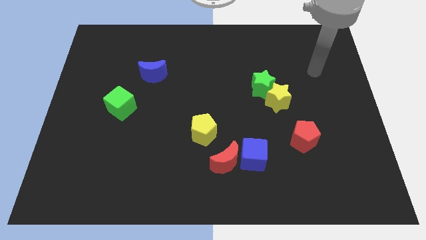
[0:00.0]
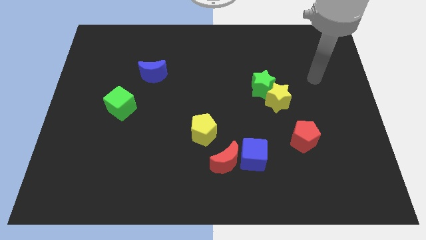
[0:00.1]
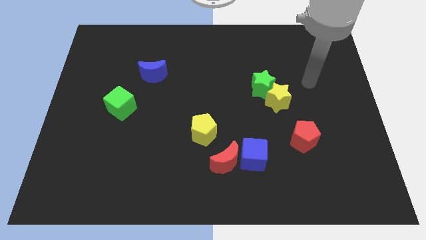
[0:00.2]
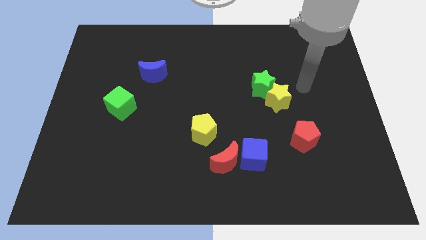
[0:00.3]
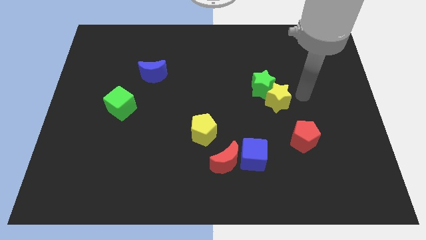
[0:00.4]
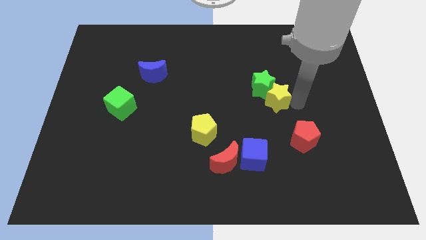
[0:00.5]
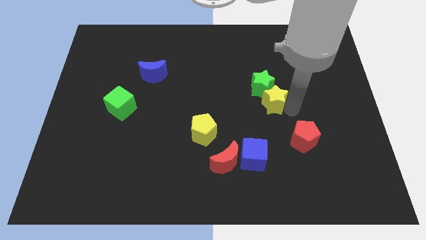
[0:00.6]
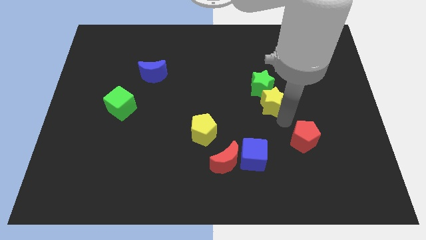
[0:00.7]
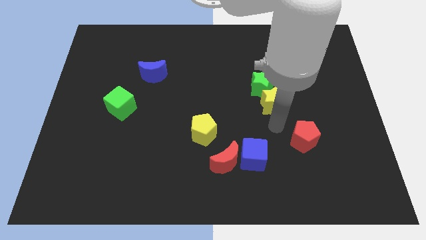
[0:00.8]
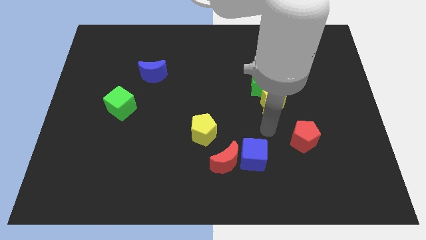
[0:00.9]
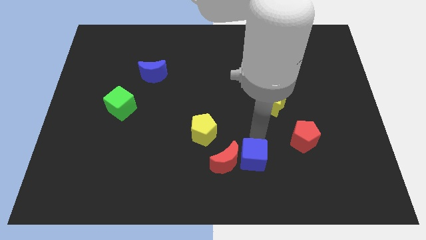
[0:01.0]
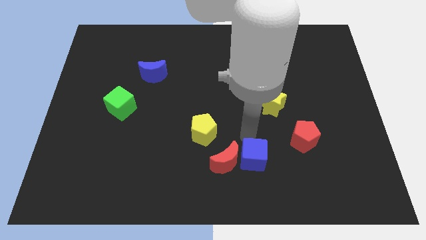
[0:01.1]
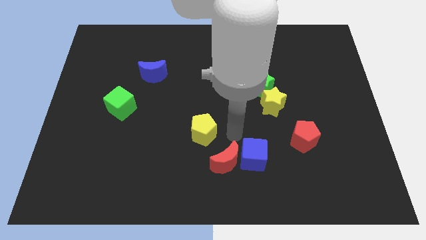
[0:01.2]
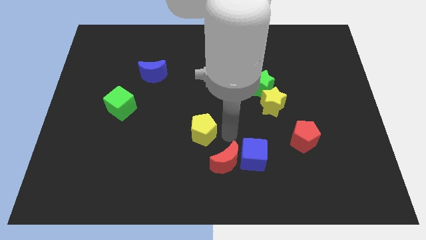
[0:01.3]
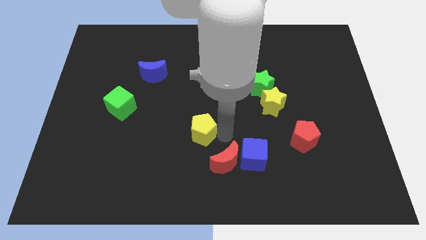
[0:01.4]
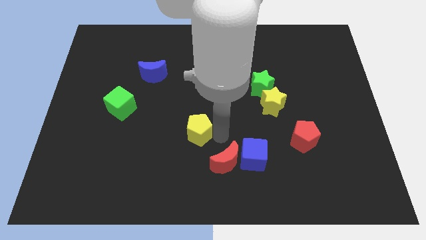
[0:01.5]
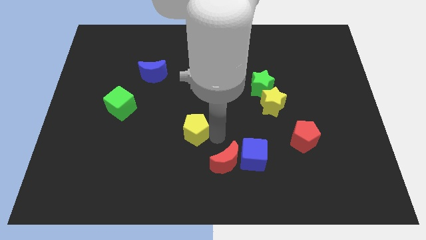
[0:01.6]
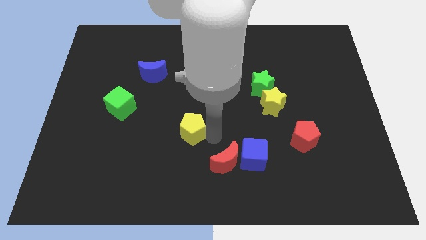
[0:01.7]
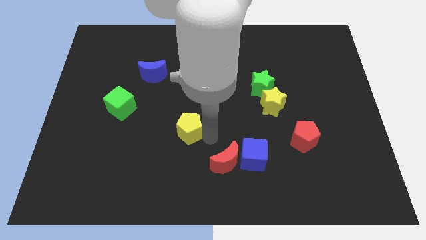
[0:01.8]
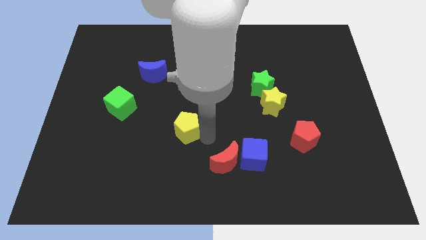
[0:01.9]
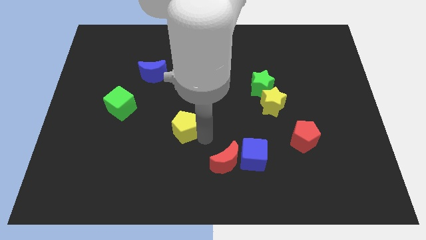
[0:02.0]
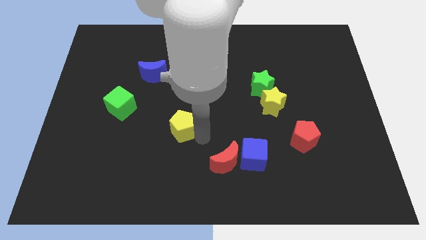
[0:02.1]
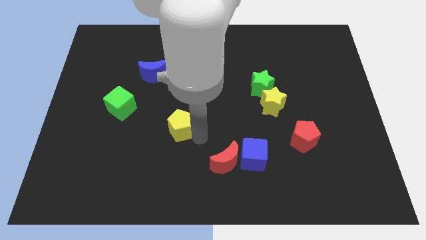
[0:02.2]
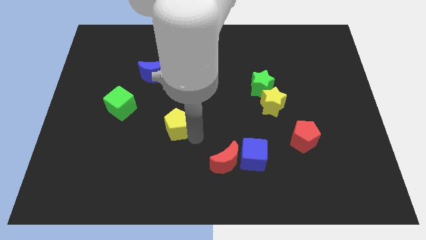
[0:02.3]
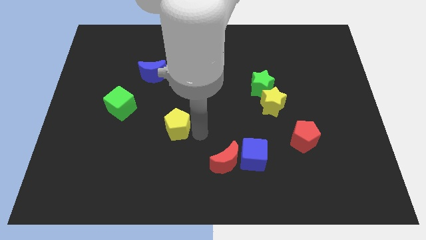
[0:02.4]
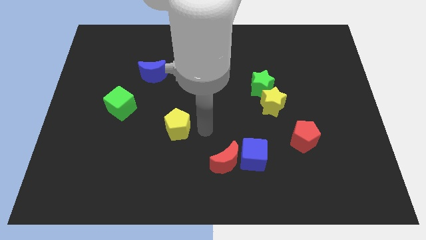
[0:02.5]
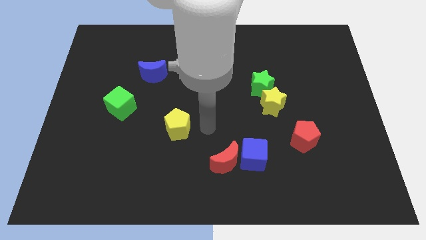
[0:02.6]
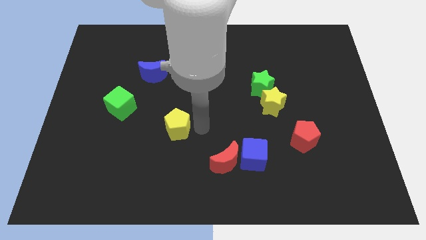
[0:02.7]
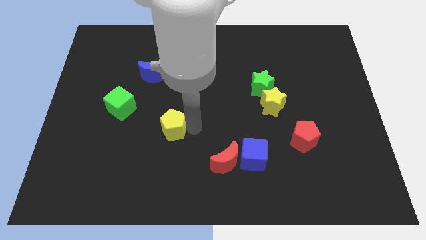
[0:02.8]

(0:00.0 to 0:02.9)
slide the yellow pentagon somewhat to the left

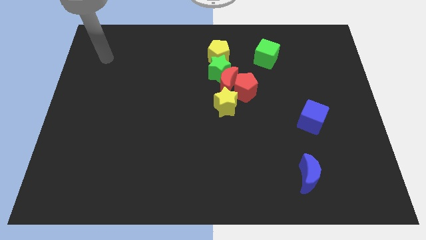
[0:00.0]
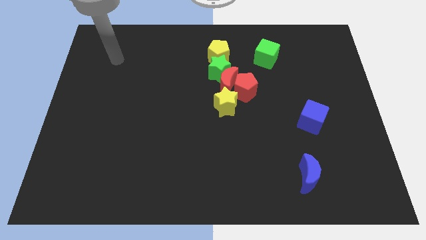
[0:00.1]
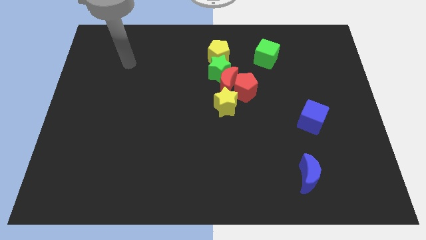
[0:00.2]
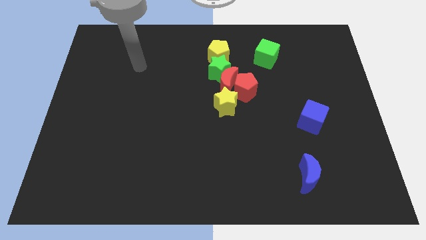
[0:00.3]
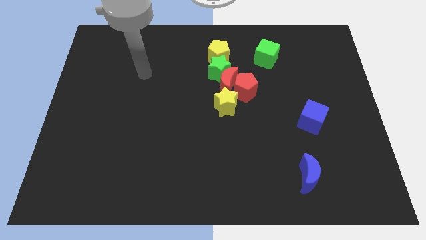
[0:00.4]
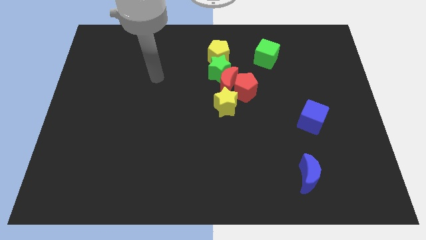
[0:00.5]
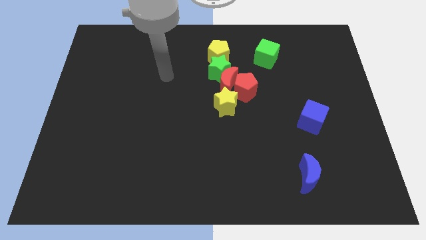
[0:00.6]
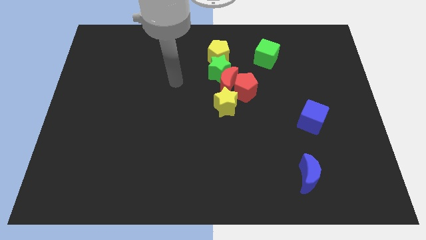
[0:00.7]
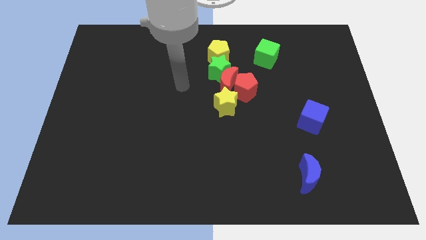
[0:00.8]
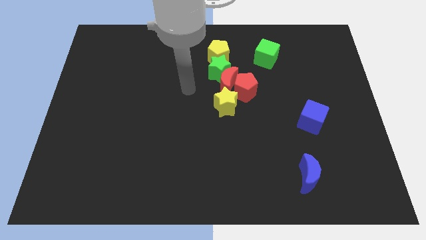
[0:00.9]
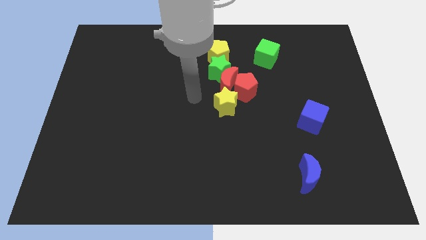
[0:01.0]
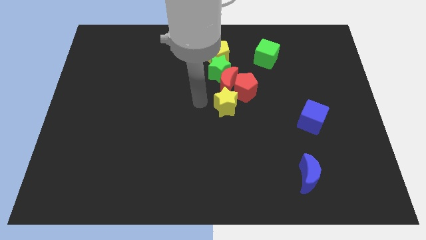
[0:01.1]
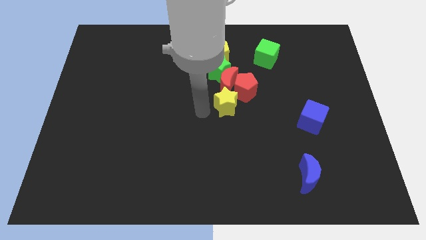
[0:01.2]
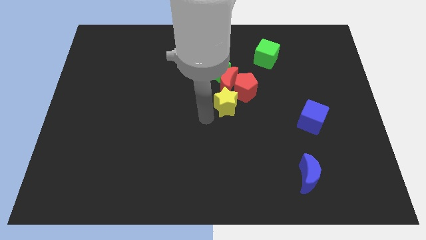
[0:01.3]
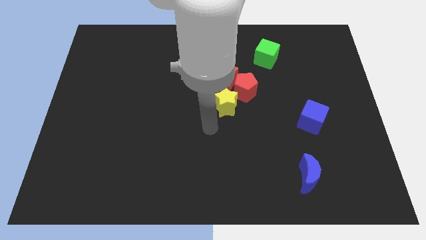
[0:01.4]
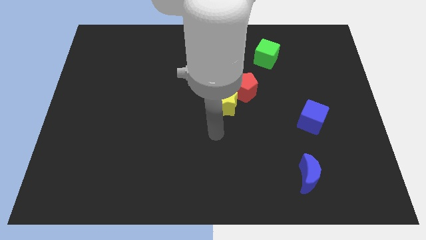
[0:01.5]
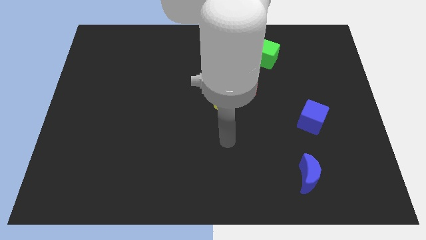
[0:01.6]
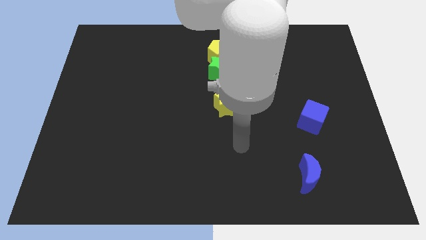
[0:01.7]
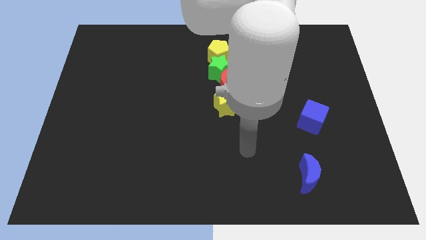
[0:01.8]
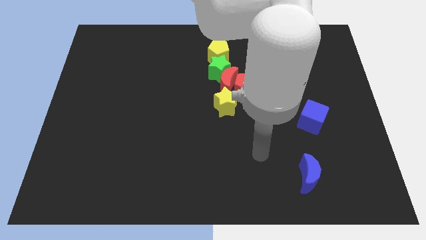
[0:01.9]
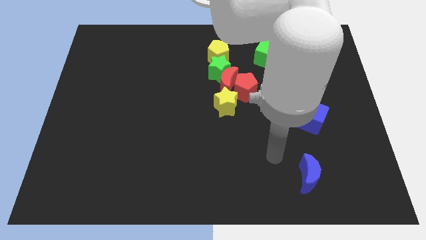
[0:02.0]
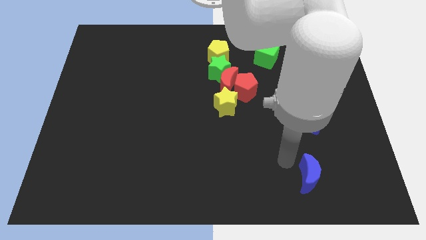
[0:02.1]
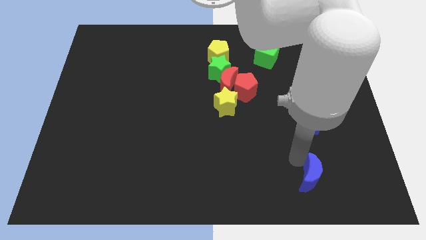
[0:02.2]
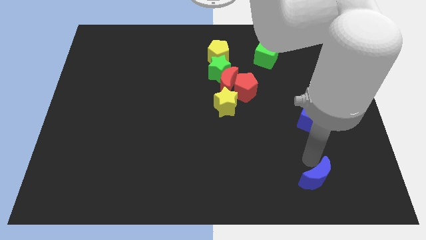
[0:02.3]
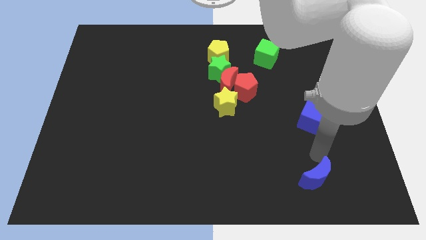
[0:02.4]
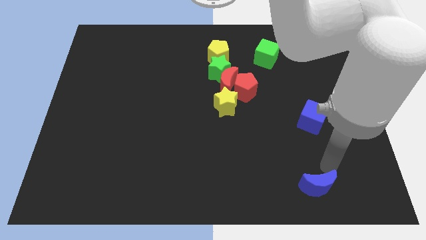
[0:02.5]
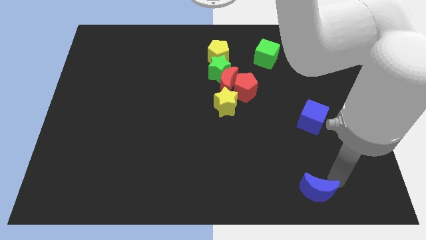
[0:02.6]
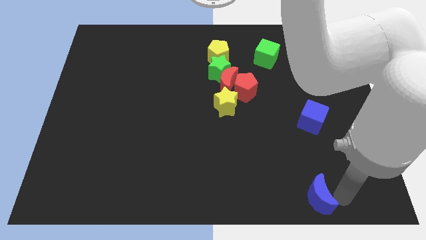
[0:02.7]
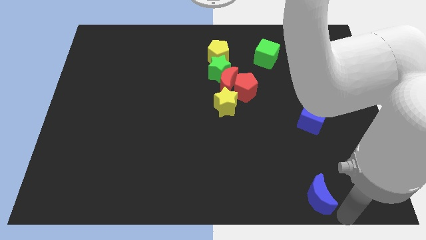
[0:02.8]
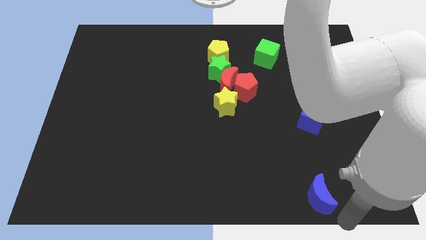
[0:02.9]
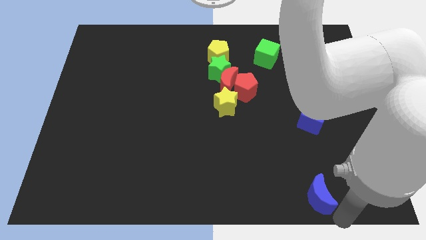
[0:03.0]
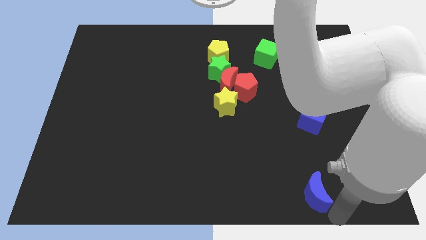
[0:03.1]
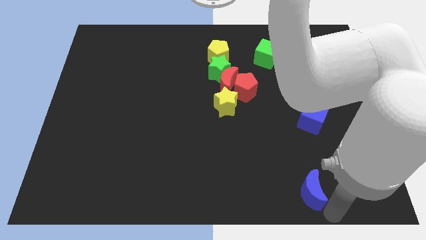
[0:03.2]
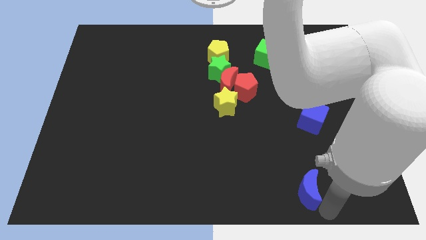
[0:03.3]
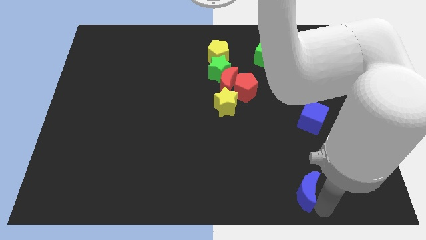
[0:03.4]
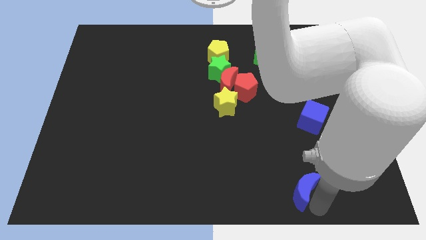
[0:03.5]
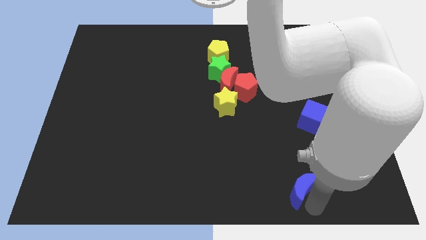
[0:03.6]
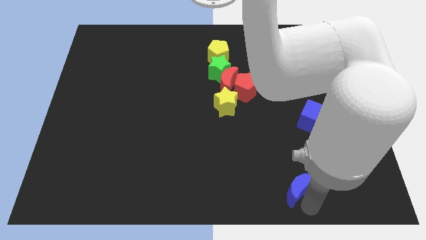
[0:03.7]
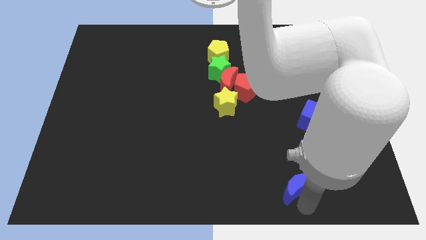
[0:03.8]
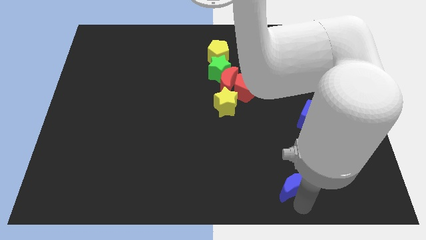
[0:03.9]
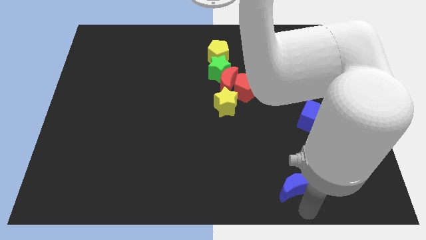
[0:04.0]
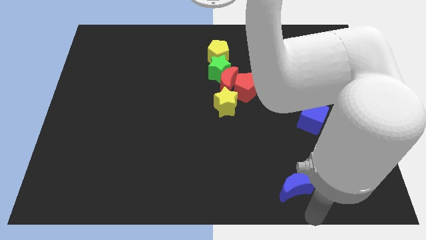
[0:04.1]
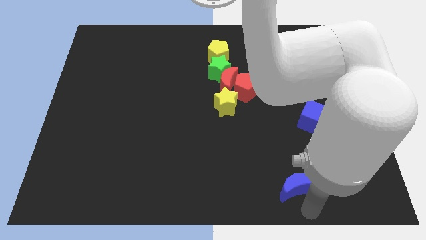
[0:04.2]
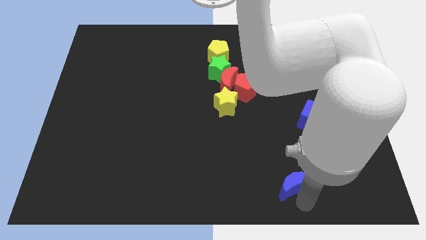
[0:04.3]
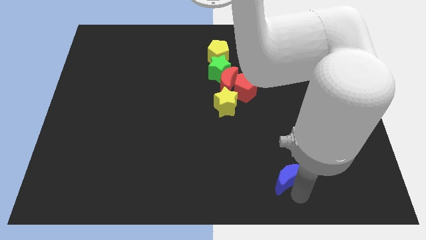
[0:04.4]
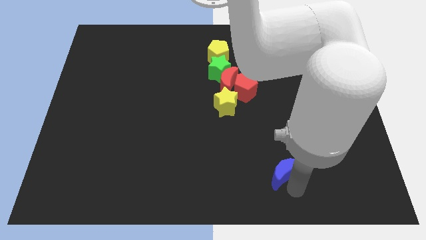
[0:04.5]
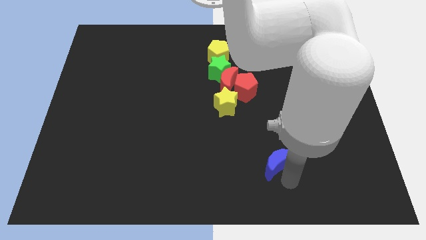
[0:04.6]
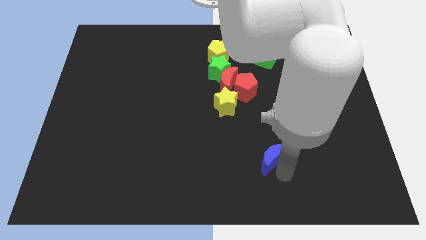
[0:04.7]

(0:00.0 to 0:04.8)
slightly push the blue moon diagonally up and left

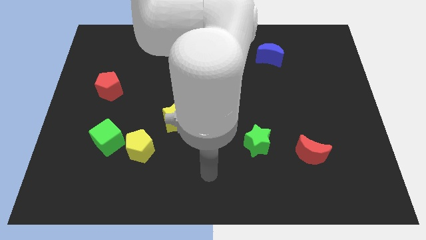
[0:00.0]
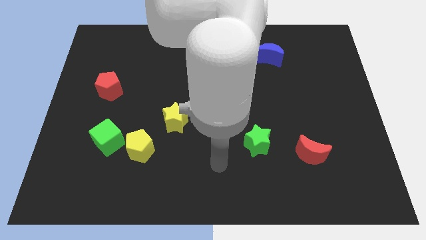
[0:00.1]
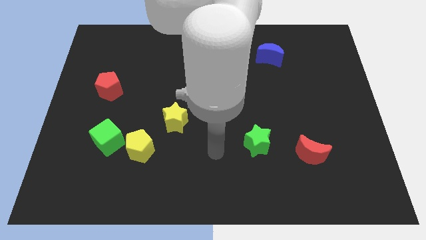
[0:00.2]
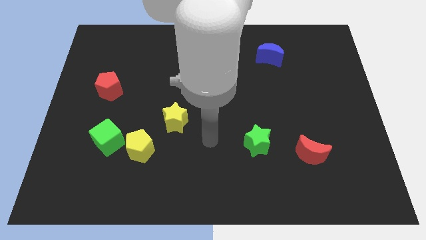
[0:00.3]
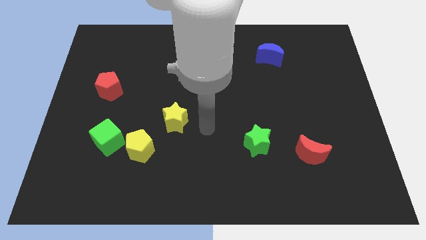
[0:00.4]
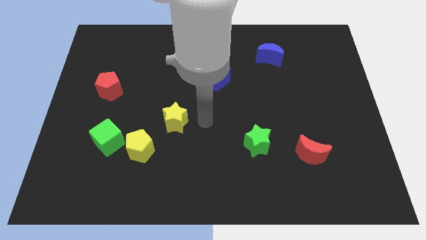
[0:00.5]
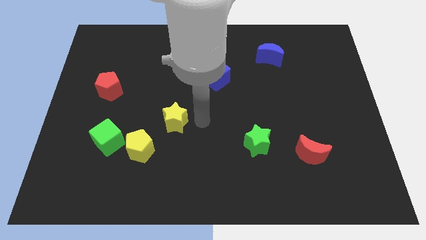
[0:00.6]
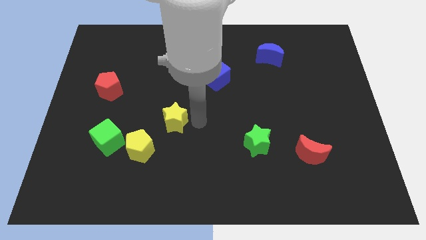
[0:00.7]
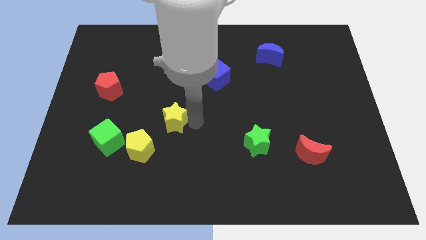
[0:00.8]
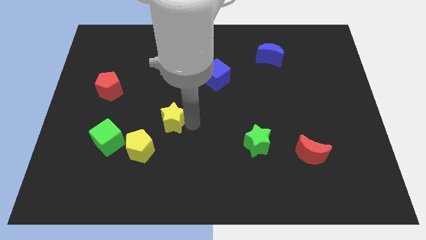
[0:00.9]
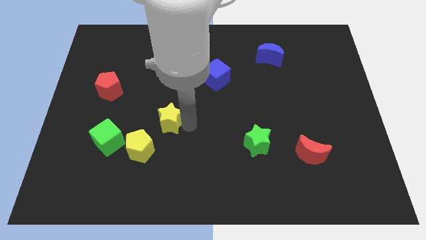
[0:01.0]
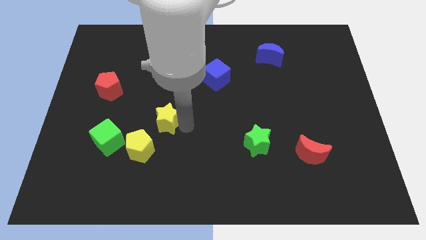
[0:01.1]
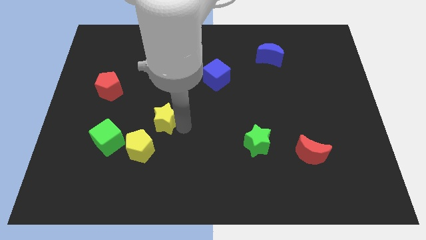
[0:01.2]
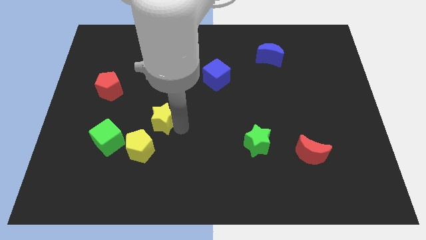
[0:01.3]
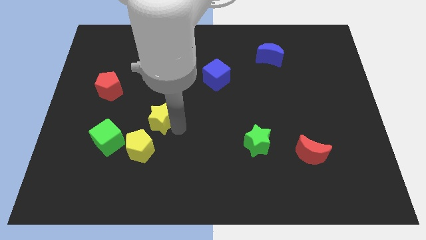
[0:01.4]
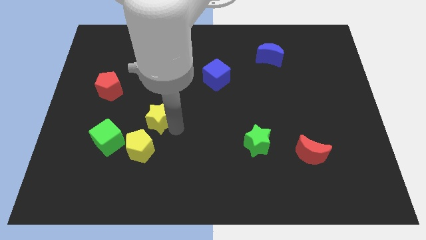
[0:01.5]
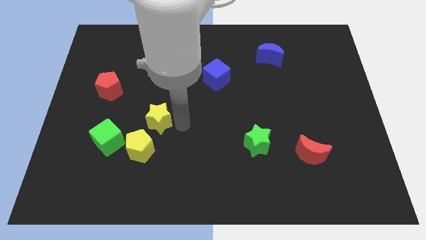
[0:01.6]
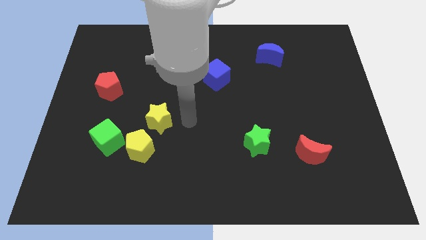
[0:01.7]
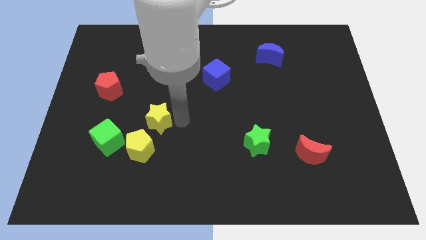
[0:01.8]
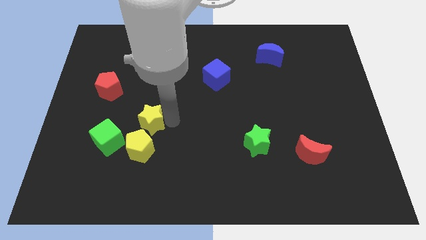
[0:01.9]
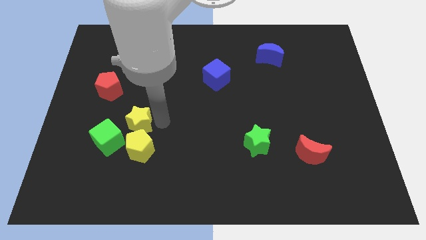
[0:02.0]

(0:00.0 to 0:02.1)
push the yellow star somewhat to the left
